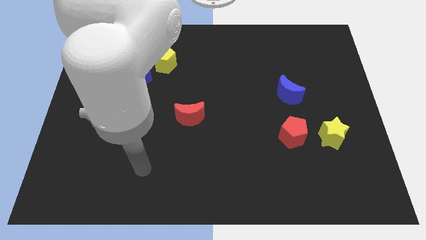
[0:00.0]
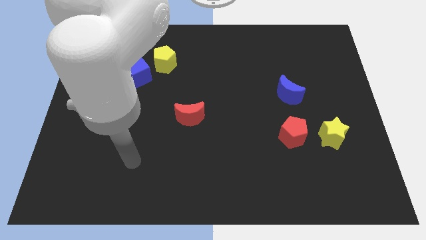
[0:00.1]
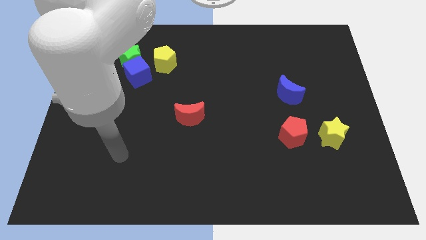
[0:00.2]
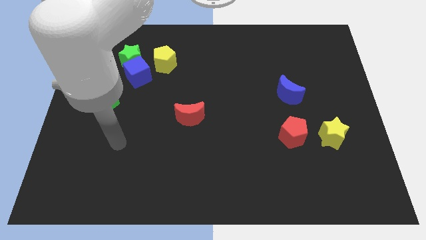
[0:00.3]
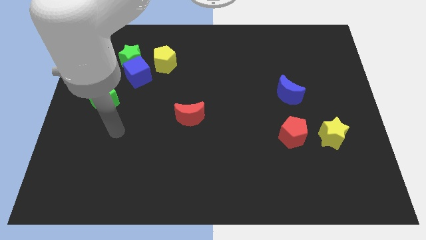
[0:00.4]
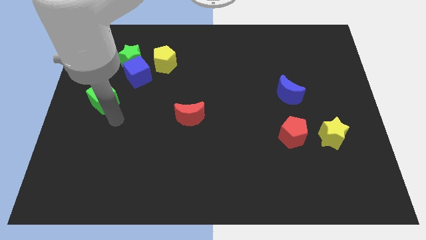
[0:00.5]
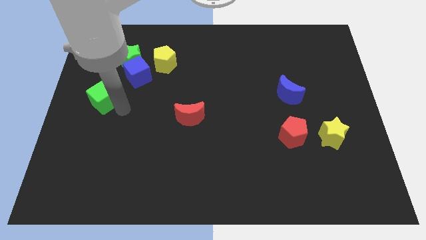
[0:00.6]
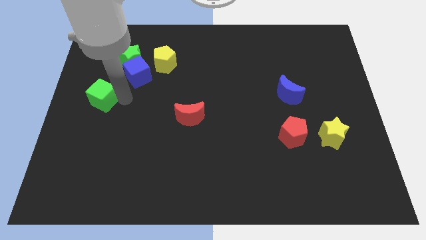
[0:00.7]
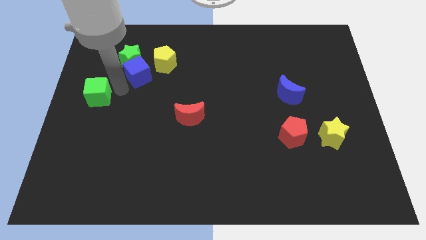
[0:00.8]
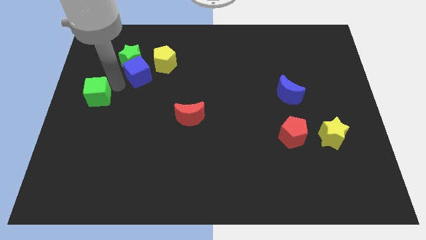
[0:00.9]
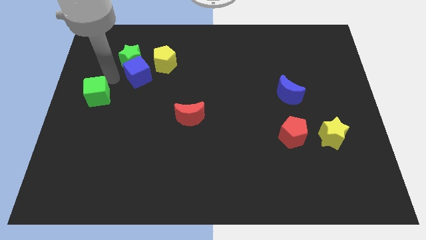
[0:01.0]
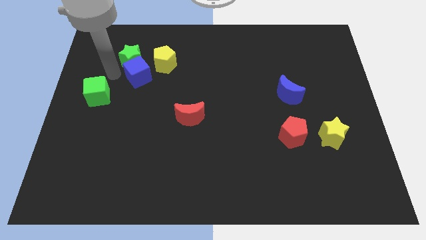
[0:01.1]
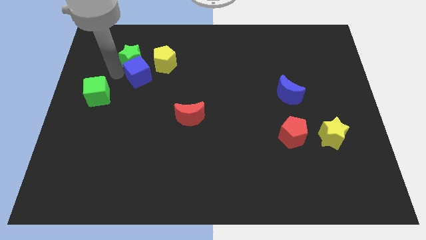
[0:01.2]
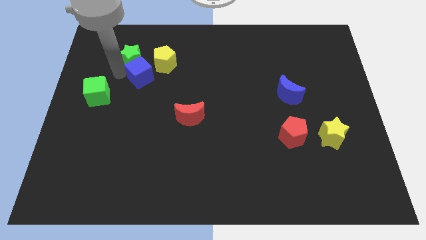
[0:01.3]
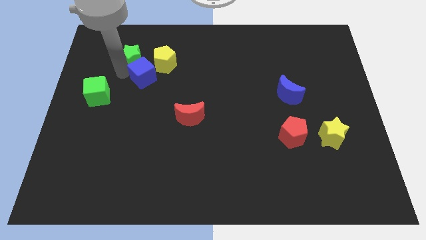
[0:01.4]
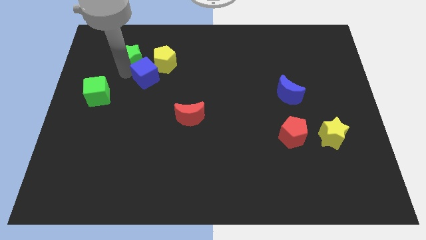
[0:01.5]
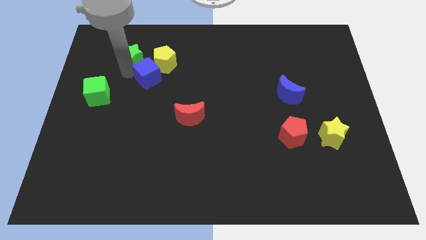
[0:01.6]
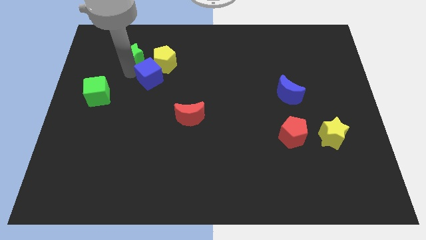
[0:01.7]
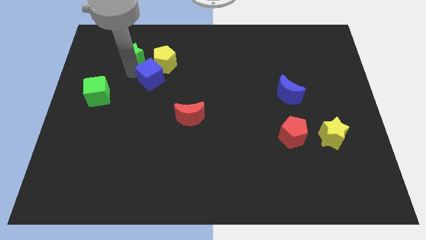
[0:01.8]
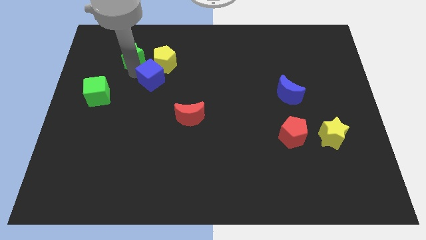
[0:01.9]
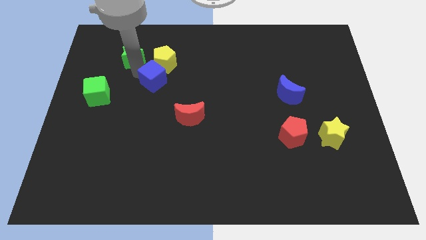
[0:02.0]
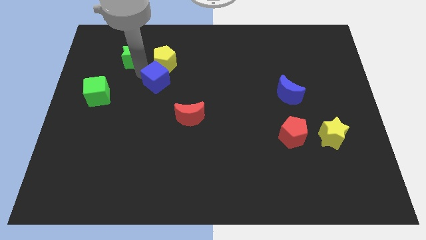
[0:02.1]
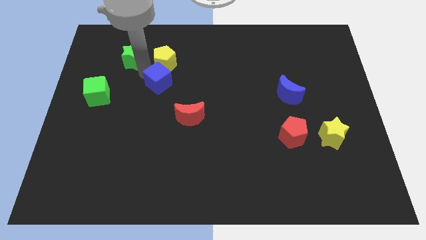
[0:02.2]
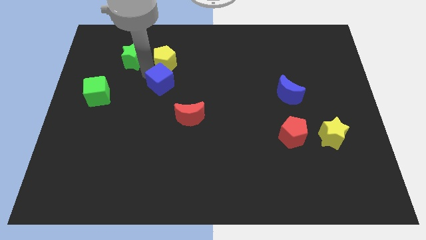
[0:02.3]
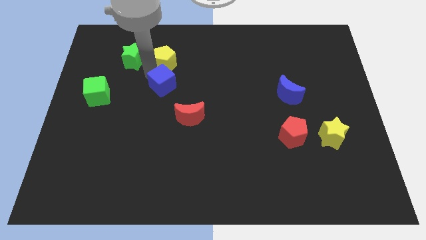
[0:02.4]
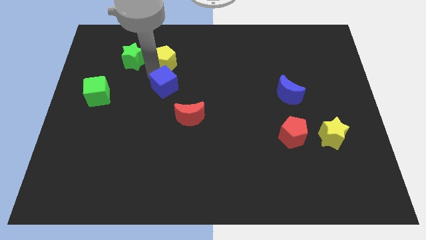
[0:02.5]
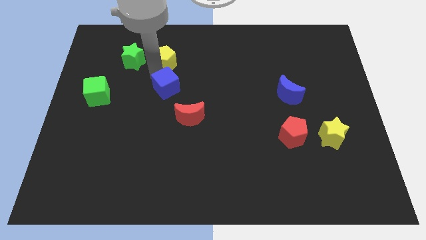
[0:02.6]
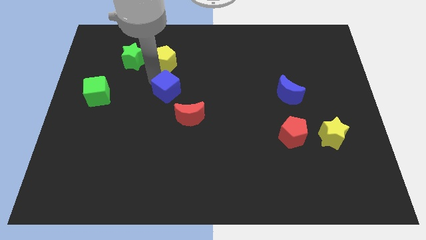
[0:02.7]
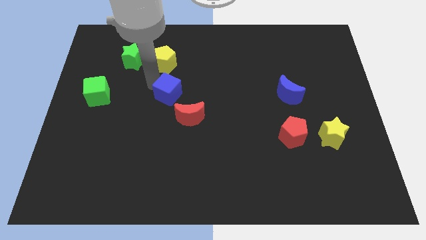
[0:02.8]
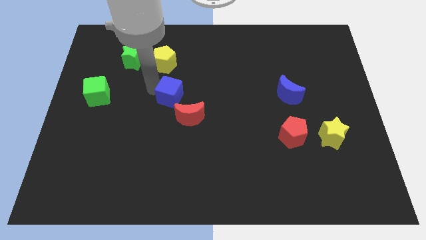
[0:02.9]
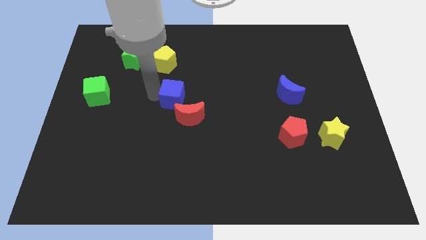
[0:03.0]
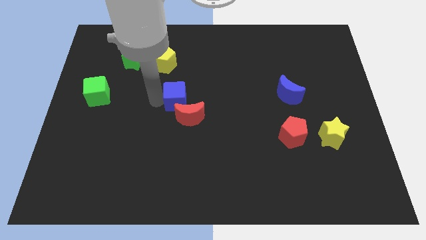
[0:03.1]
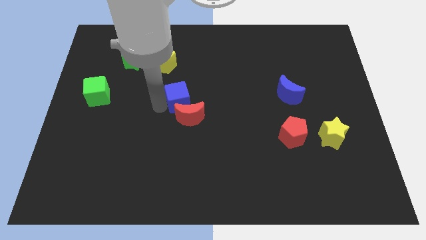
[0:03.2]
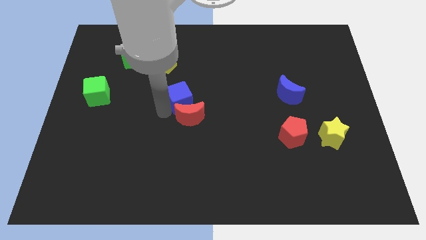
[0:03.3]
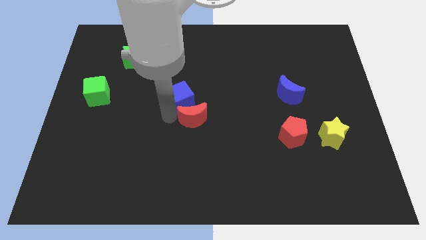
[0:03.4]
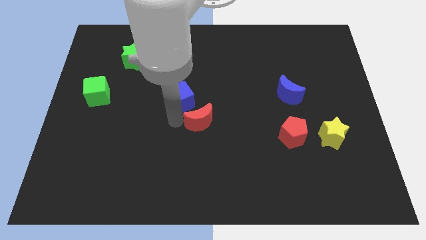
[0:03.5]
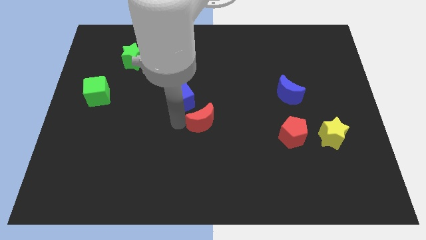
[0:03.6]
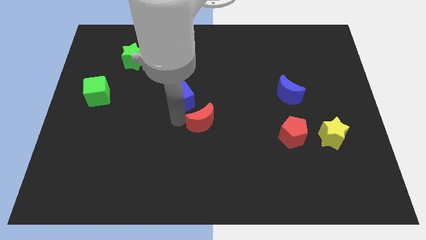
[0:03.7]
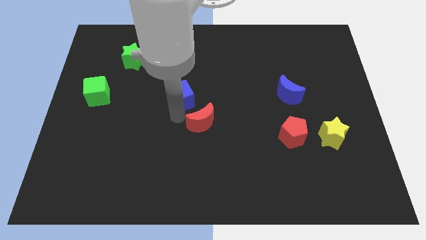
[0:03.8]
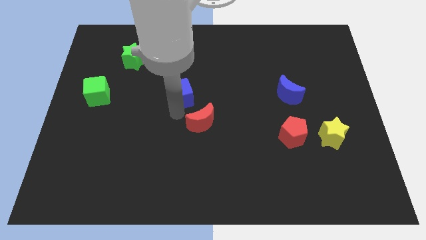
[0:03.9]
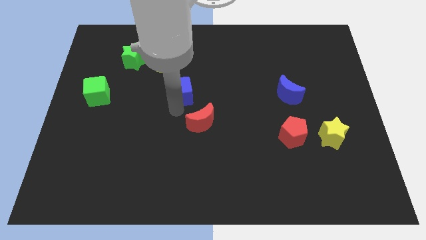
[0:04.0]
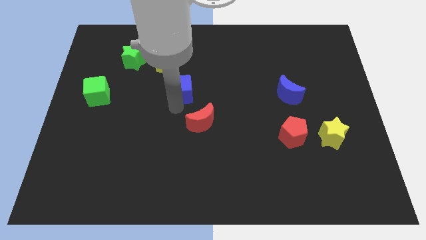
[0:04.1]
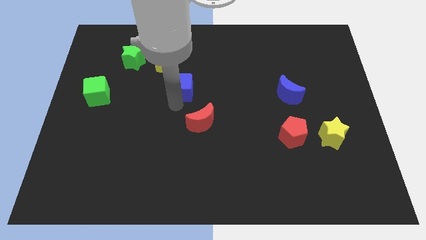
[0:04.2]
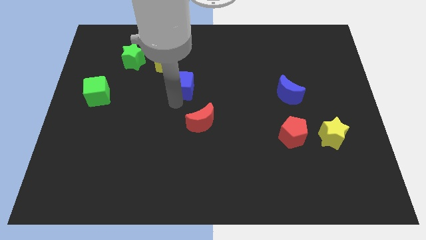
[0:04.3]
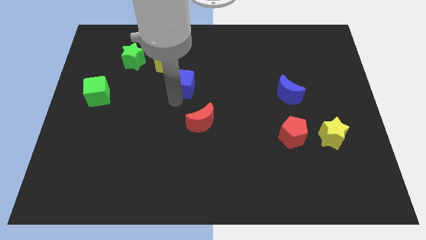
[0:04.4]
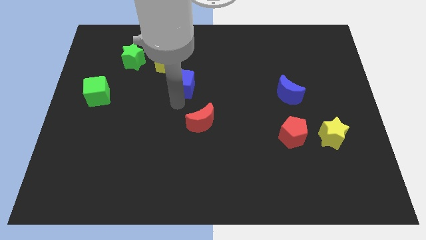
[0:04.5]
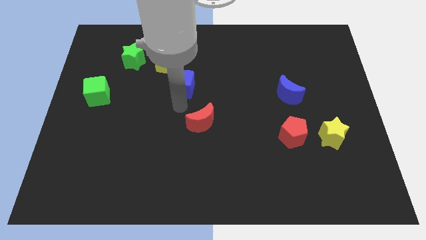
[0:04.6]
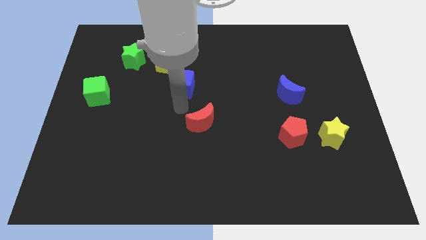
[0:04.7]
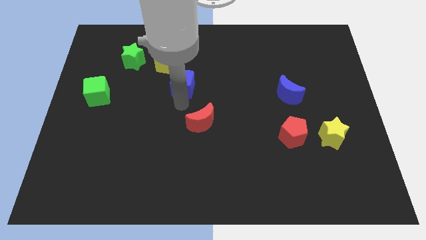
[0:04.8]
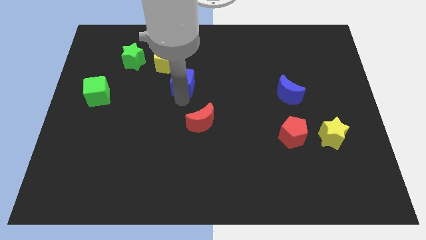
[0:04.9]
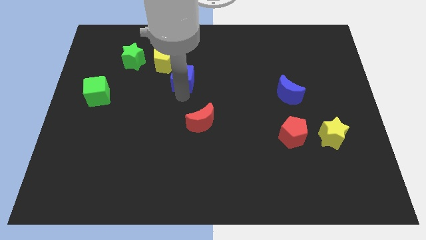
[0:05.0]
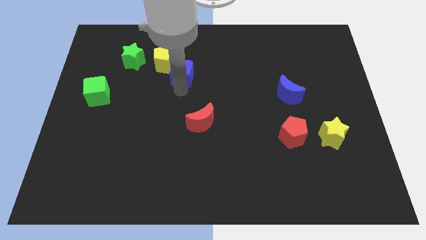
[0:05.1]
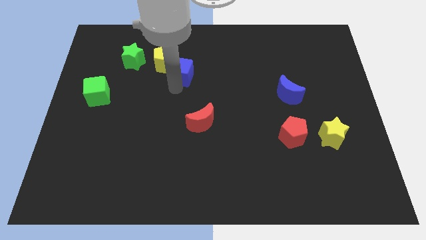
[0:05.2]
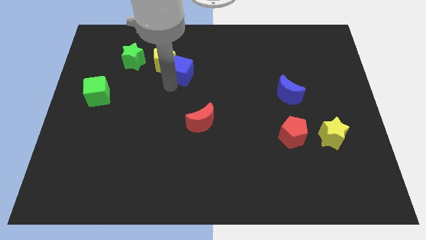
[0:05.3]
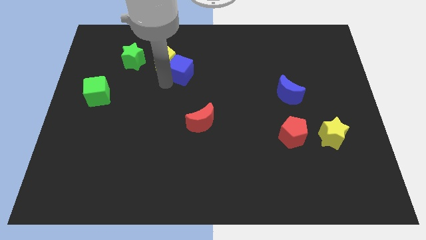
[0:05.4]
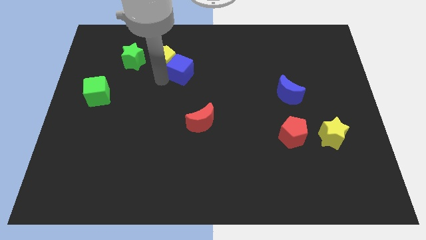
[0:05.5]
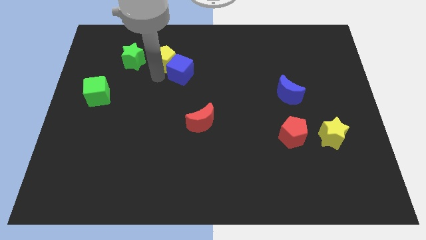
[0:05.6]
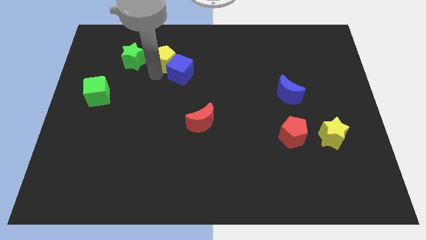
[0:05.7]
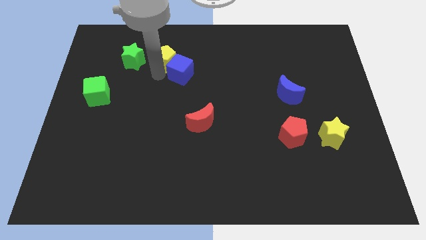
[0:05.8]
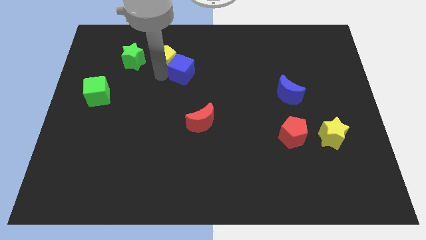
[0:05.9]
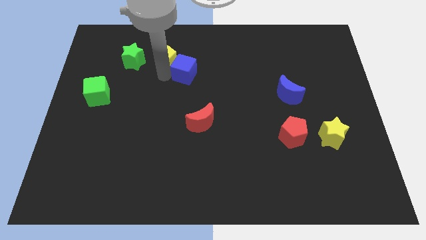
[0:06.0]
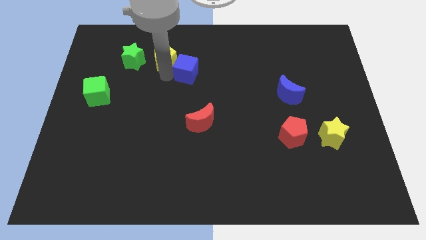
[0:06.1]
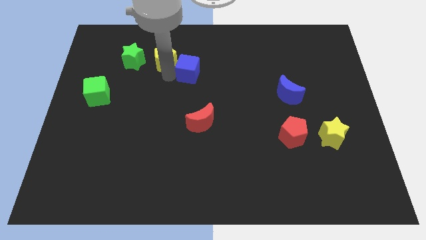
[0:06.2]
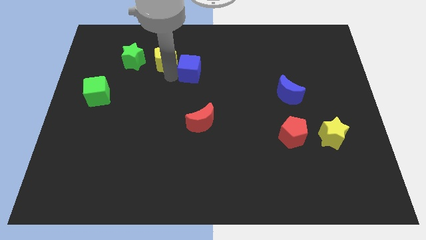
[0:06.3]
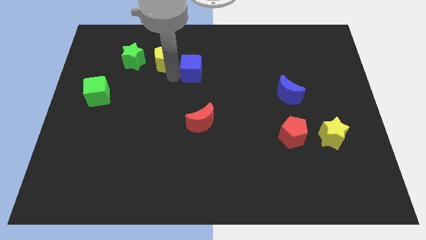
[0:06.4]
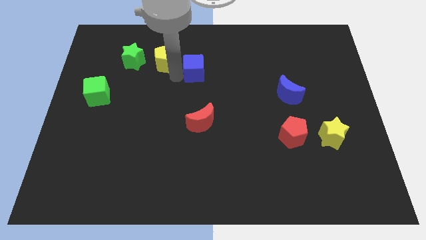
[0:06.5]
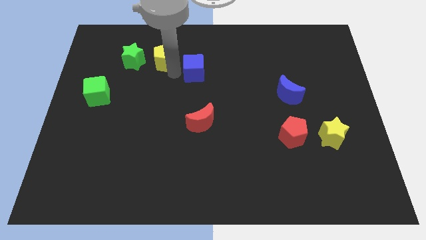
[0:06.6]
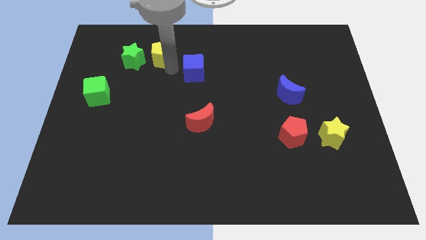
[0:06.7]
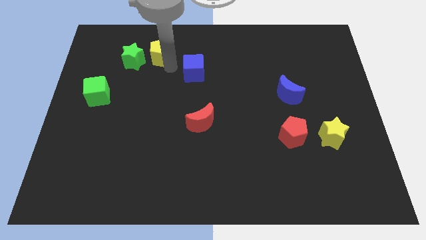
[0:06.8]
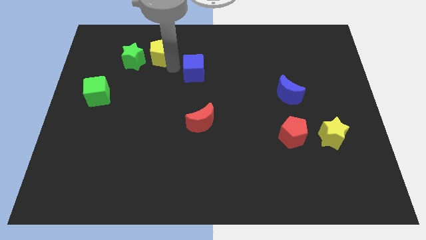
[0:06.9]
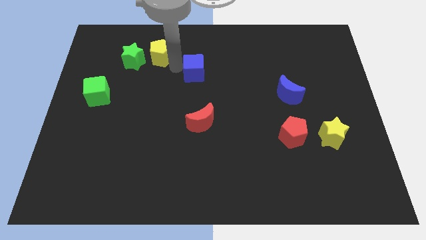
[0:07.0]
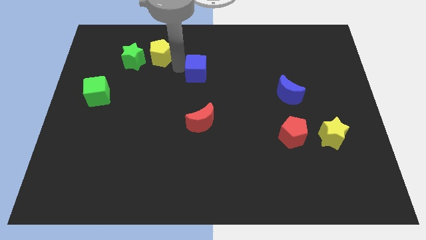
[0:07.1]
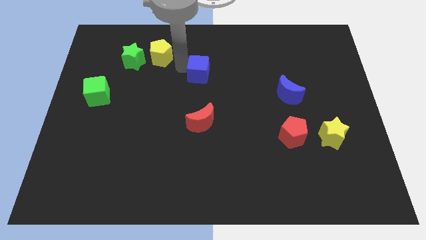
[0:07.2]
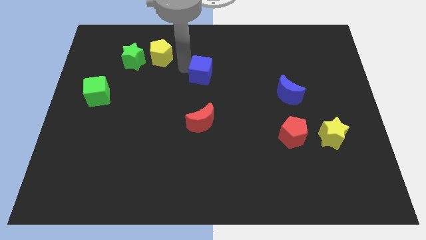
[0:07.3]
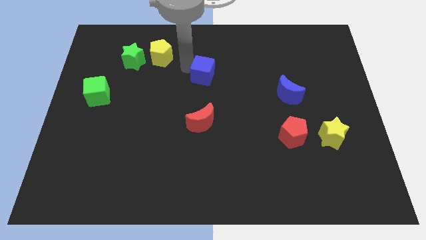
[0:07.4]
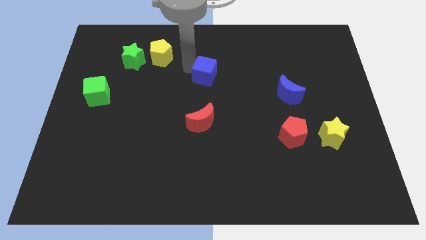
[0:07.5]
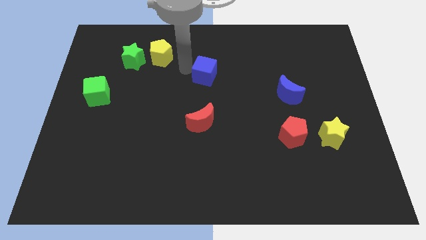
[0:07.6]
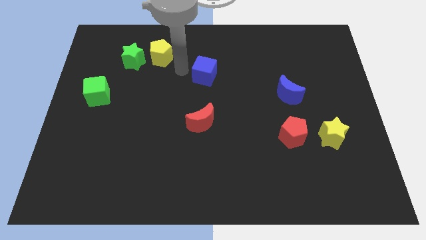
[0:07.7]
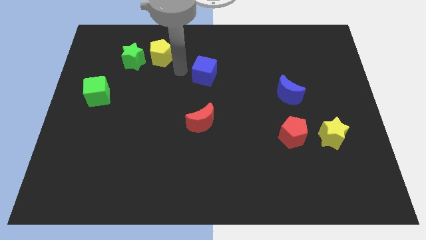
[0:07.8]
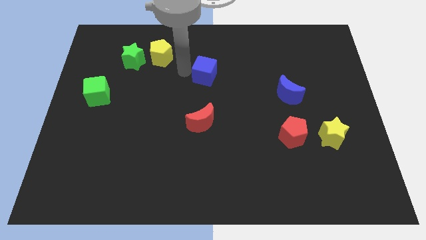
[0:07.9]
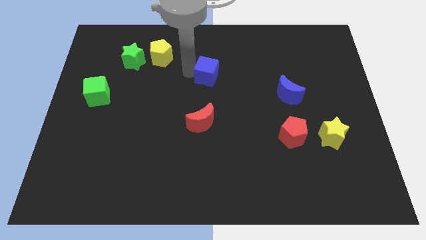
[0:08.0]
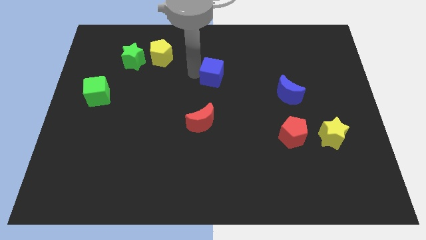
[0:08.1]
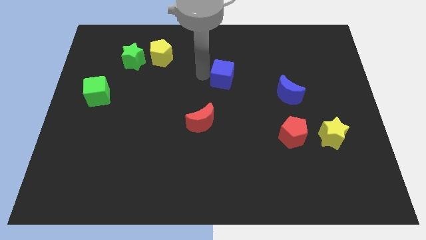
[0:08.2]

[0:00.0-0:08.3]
push the blue cube to the right
